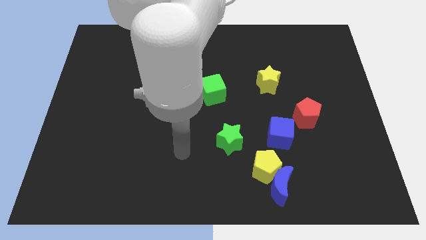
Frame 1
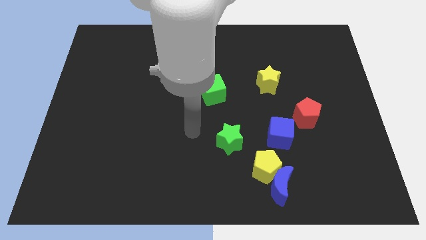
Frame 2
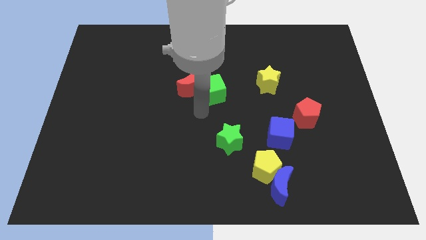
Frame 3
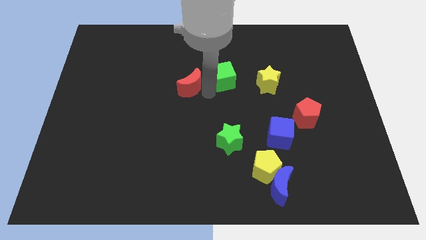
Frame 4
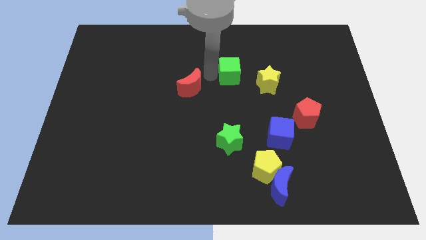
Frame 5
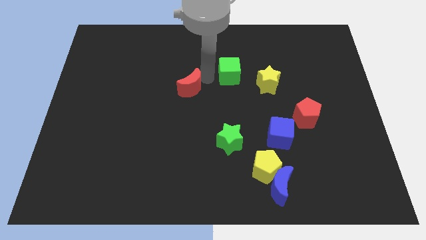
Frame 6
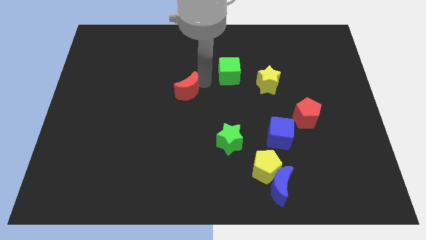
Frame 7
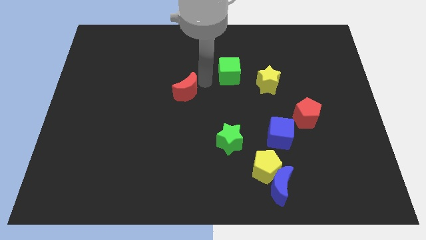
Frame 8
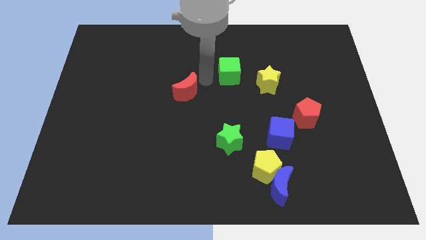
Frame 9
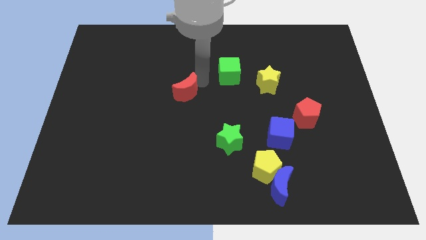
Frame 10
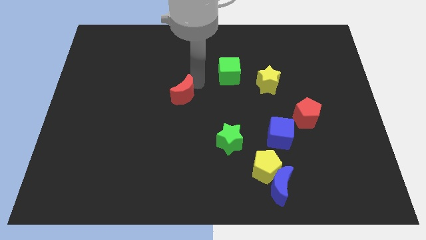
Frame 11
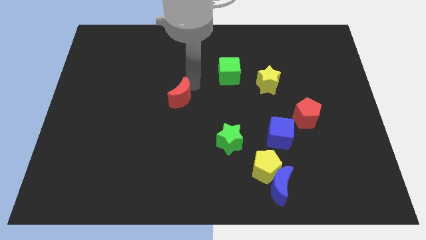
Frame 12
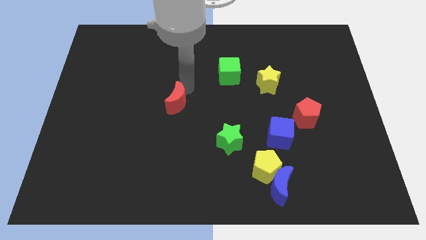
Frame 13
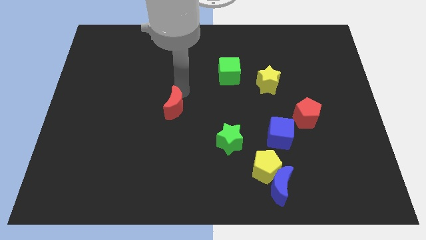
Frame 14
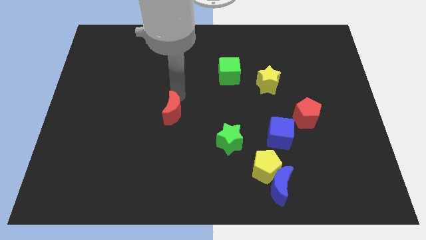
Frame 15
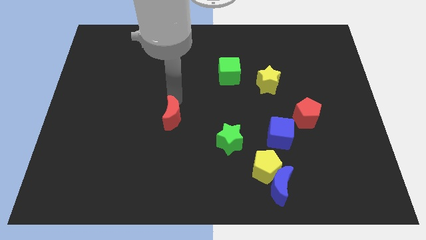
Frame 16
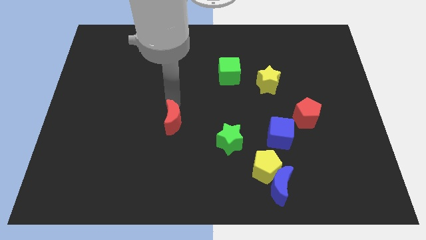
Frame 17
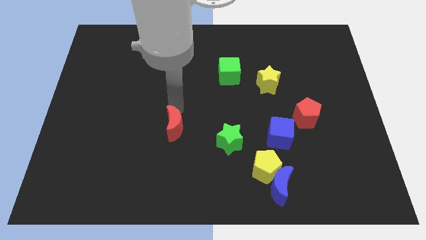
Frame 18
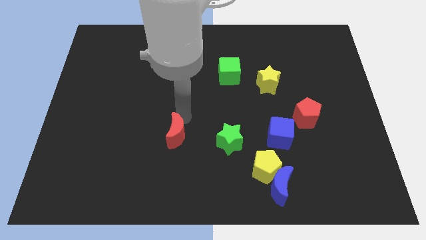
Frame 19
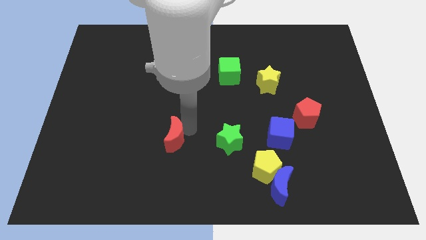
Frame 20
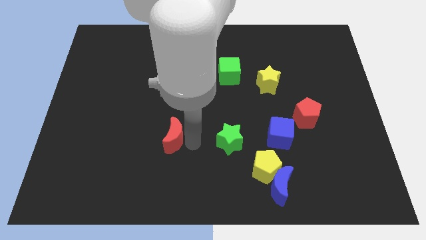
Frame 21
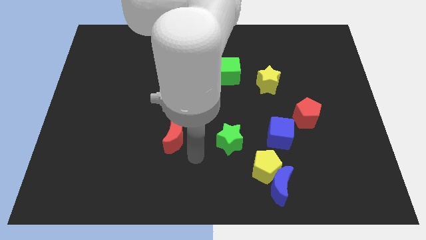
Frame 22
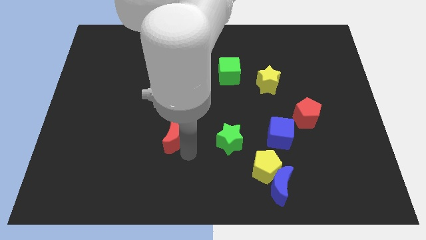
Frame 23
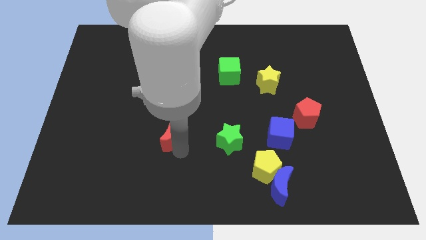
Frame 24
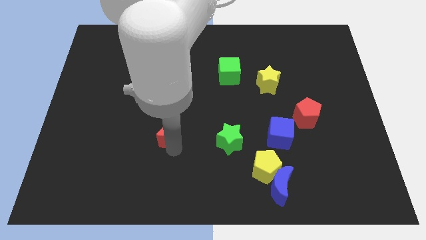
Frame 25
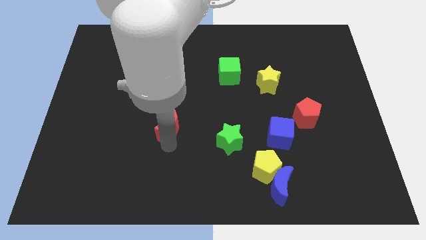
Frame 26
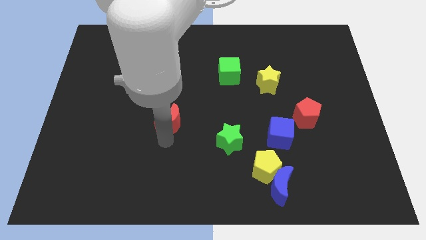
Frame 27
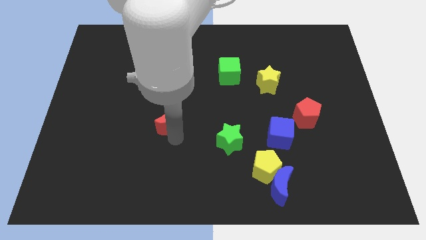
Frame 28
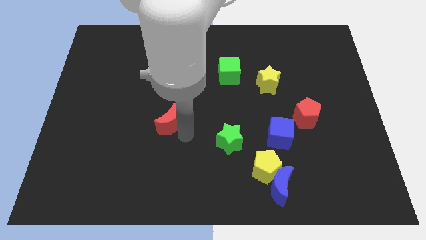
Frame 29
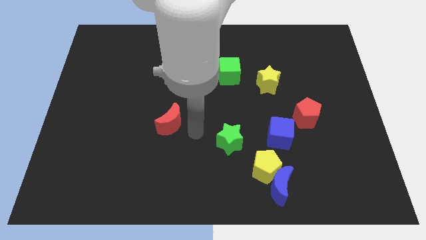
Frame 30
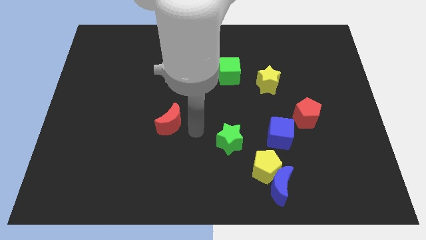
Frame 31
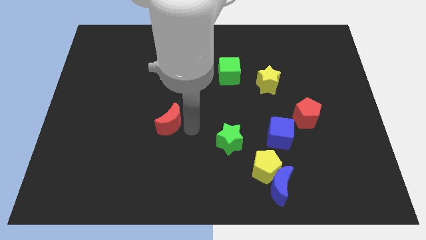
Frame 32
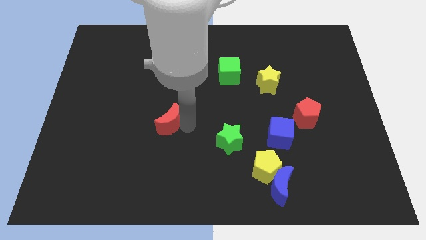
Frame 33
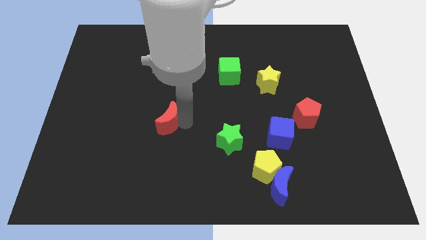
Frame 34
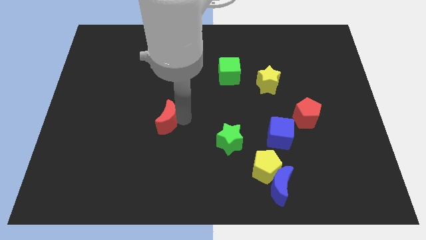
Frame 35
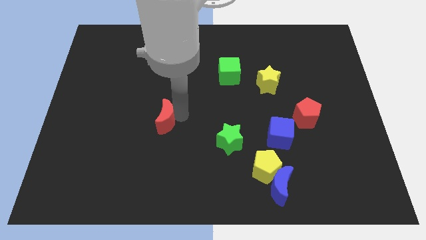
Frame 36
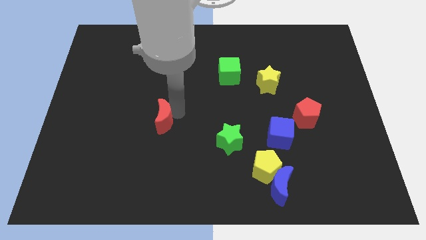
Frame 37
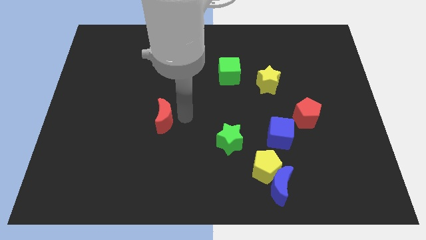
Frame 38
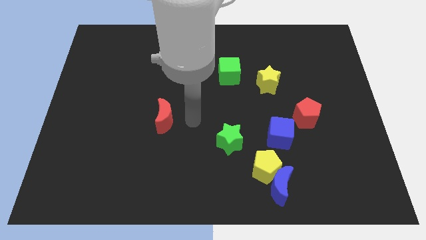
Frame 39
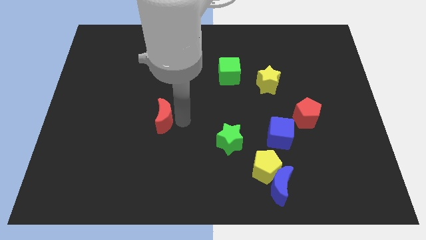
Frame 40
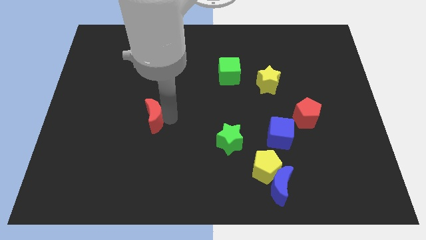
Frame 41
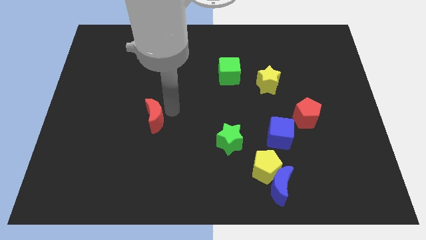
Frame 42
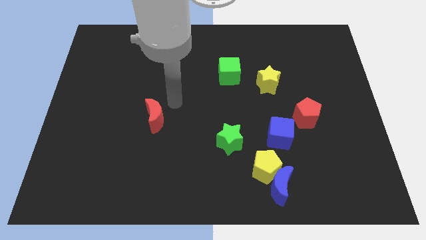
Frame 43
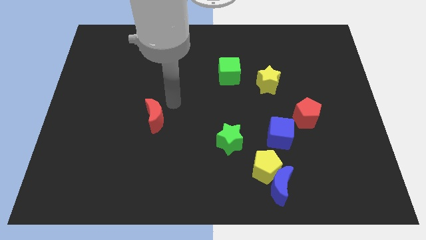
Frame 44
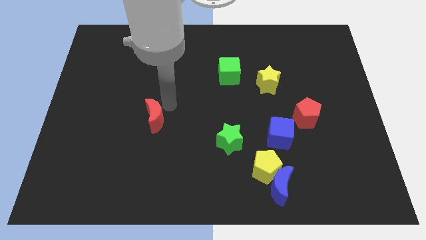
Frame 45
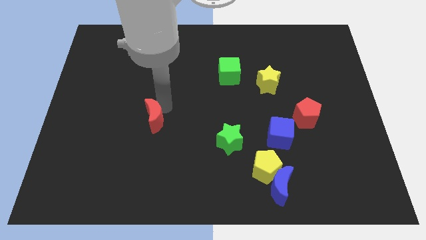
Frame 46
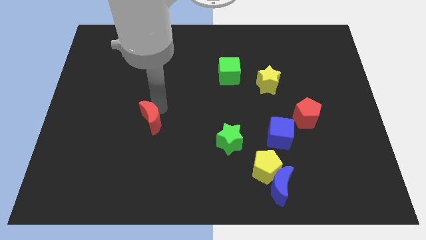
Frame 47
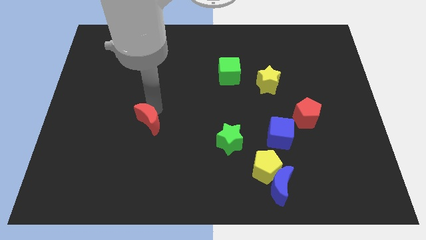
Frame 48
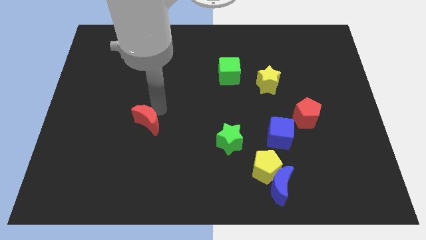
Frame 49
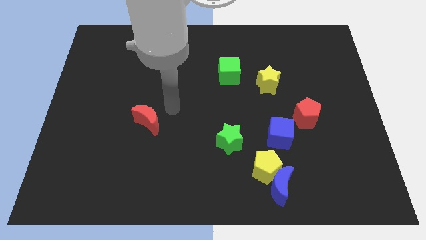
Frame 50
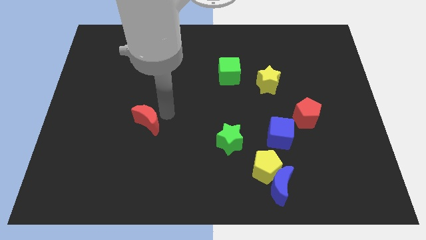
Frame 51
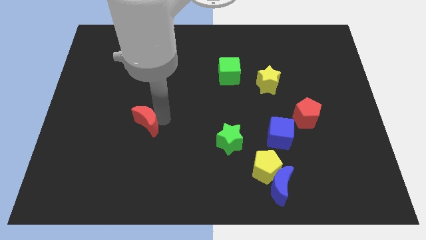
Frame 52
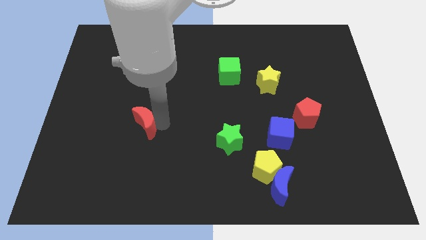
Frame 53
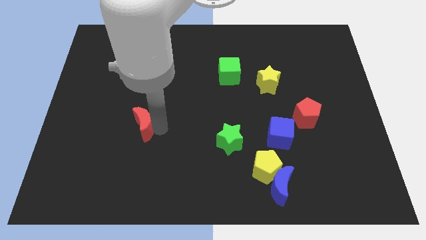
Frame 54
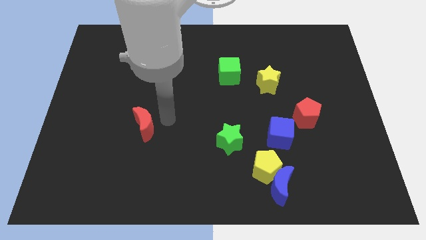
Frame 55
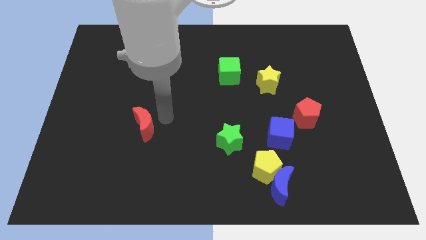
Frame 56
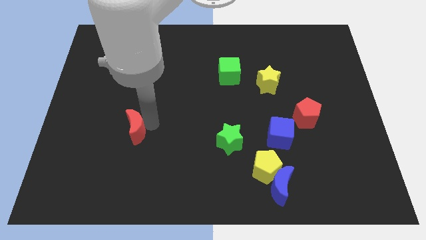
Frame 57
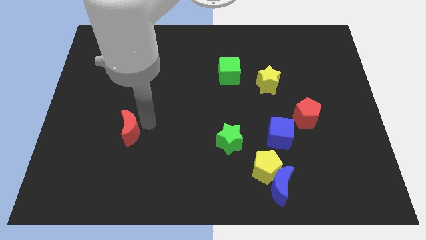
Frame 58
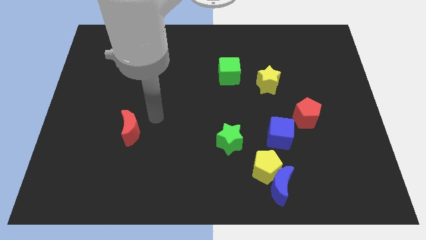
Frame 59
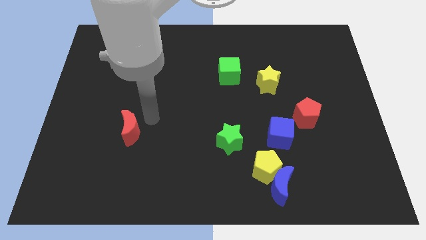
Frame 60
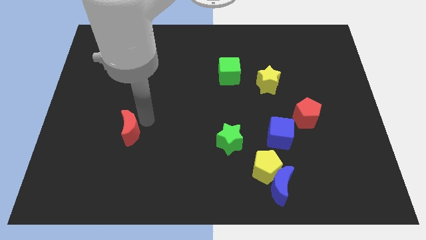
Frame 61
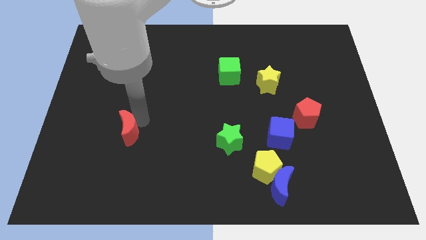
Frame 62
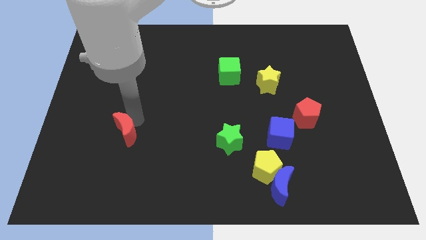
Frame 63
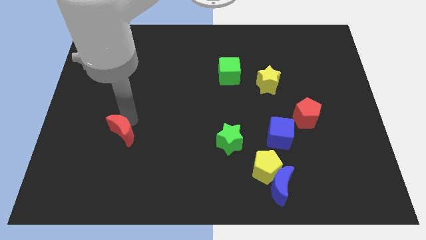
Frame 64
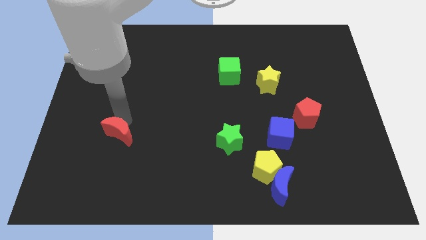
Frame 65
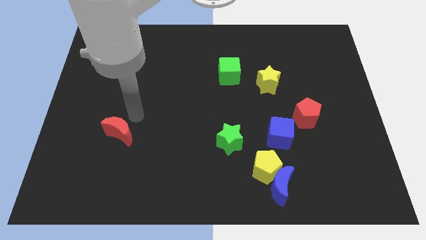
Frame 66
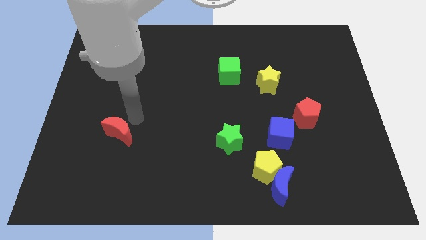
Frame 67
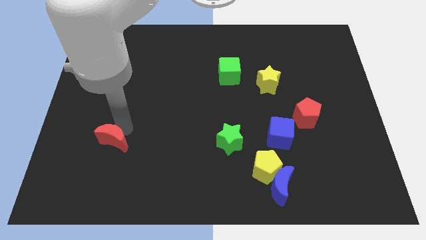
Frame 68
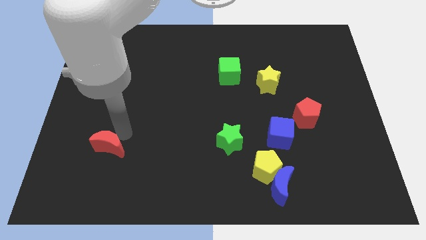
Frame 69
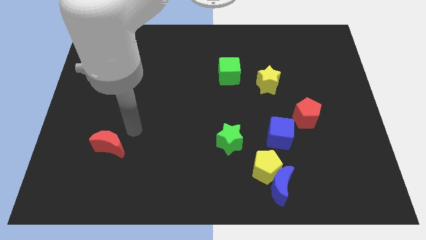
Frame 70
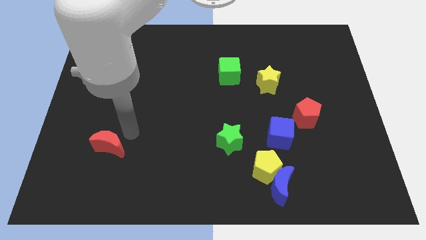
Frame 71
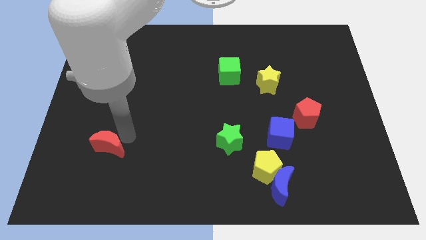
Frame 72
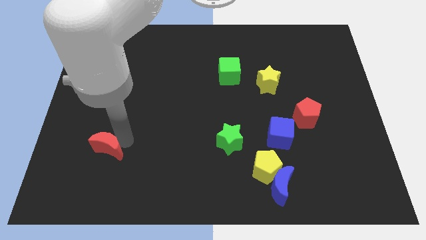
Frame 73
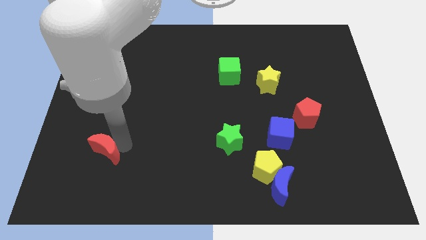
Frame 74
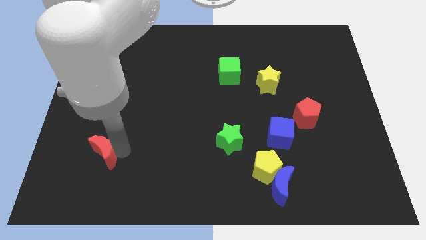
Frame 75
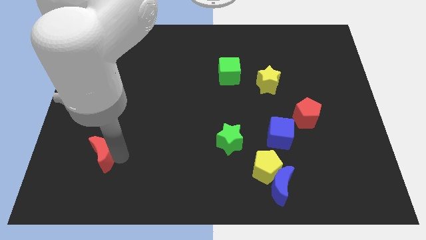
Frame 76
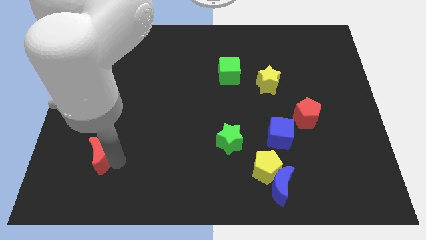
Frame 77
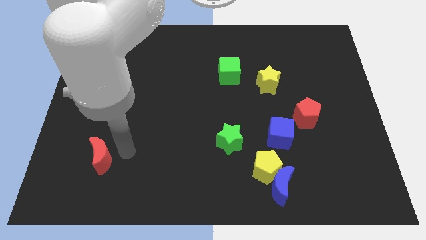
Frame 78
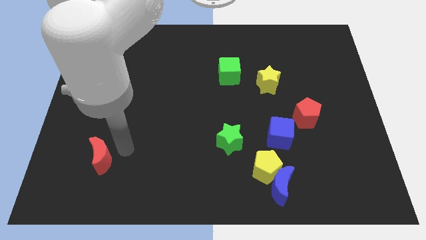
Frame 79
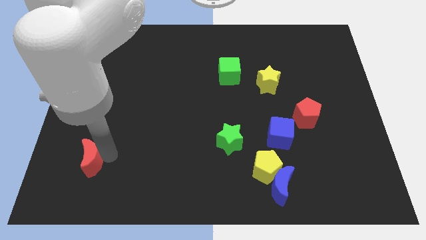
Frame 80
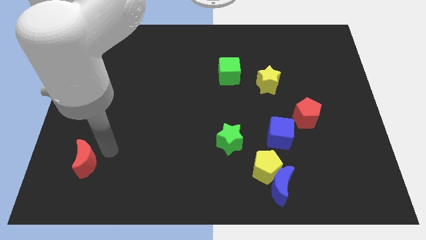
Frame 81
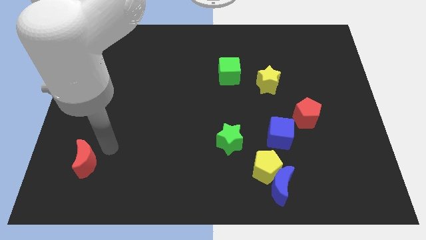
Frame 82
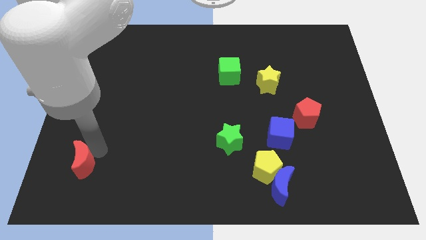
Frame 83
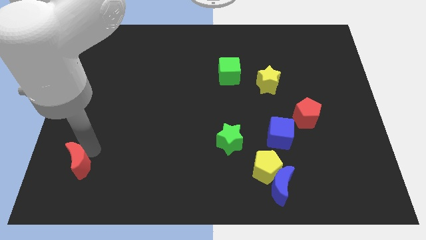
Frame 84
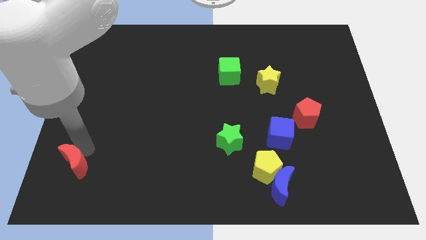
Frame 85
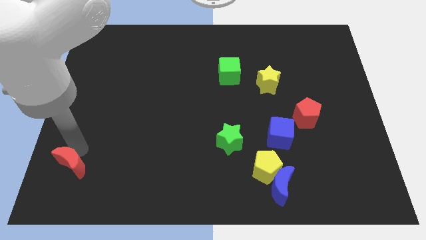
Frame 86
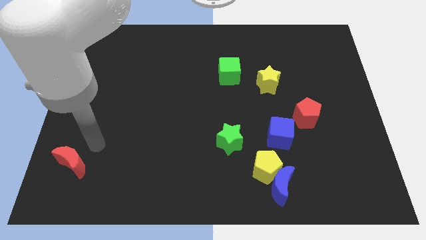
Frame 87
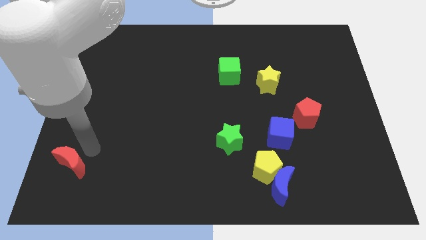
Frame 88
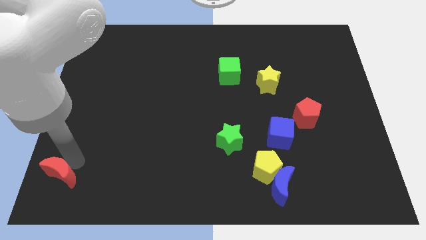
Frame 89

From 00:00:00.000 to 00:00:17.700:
put the red moon to the bottom left corner
